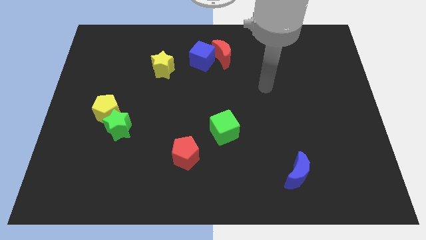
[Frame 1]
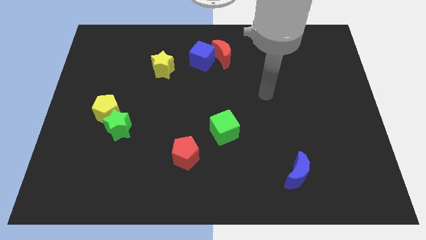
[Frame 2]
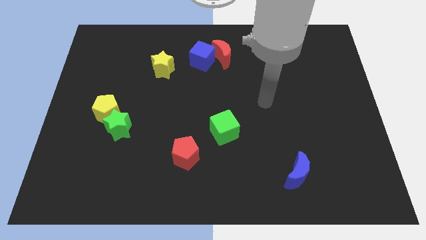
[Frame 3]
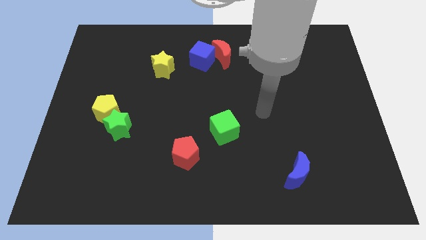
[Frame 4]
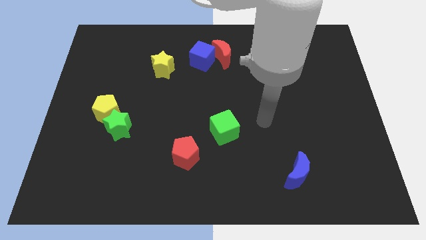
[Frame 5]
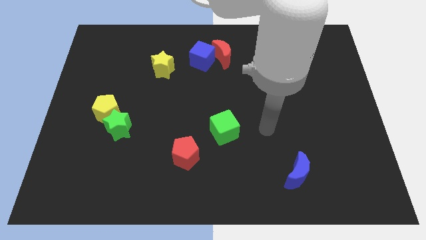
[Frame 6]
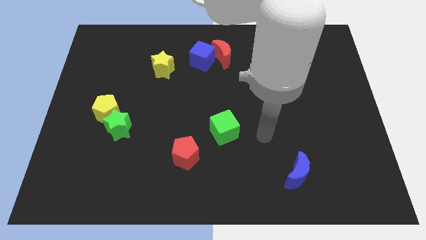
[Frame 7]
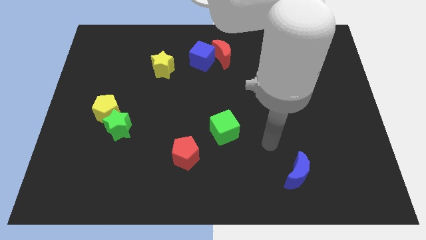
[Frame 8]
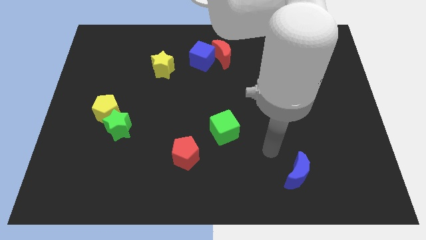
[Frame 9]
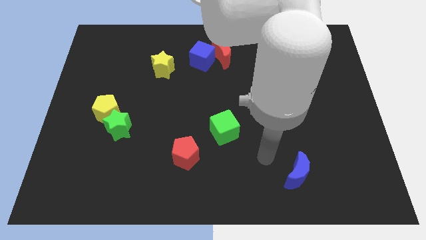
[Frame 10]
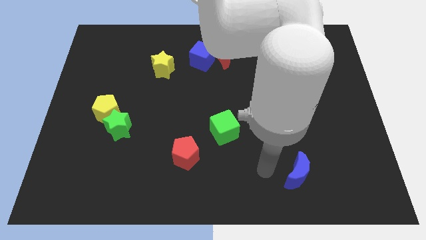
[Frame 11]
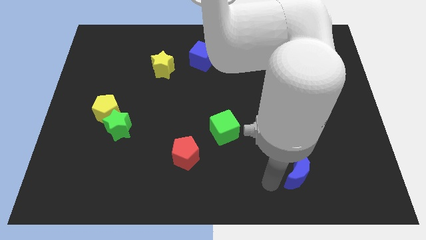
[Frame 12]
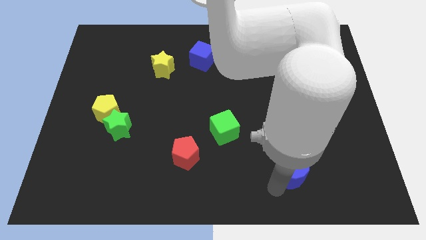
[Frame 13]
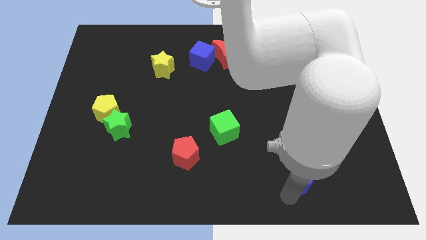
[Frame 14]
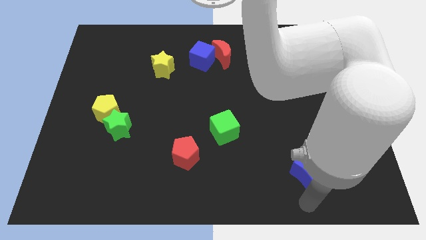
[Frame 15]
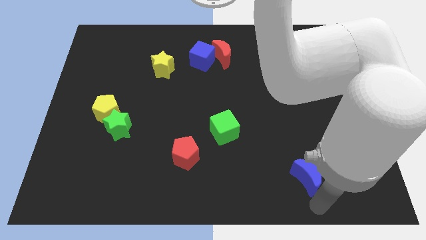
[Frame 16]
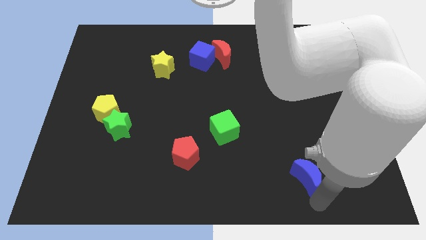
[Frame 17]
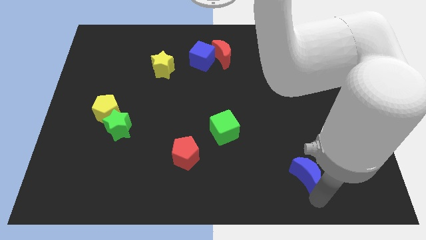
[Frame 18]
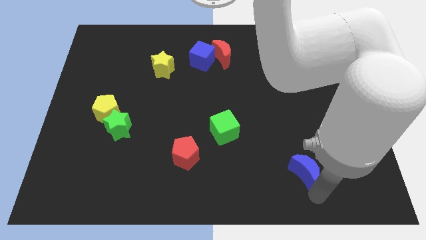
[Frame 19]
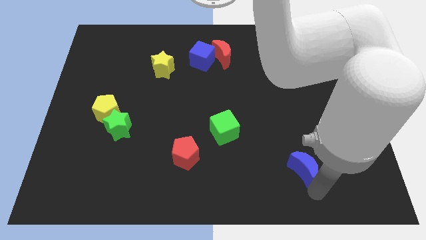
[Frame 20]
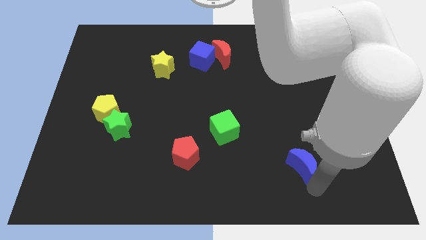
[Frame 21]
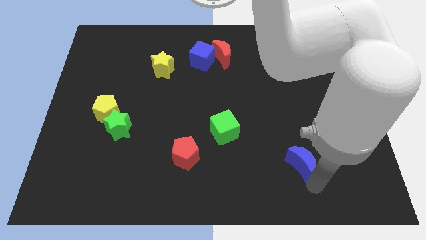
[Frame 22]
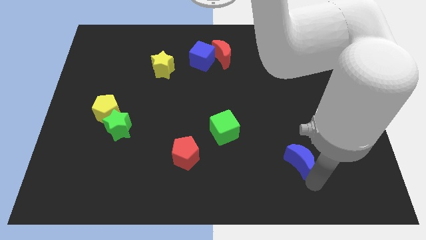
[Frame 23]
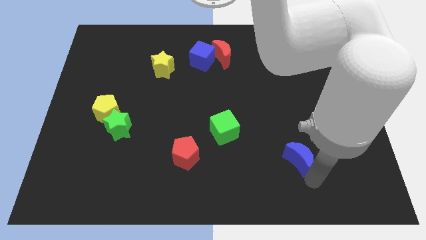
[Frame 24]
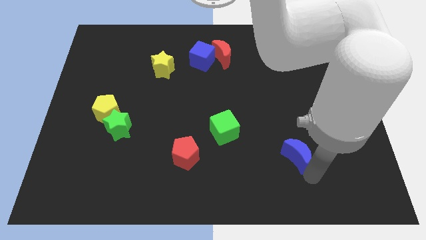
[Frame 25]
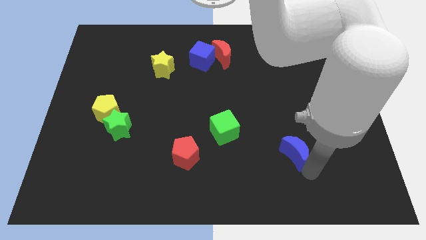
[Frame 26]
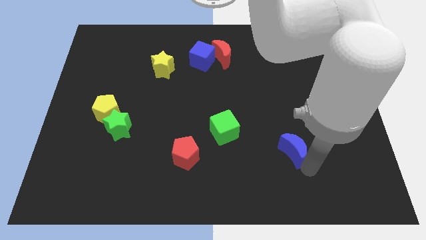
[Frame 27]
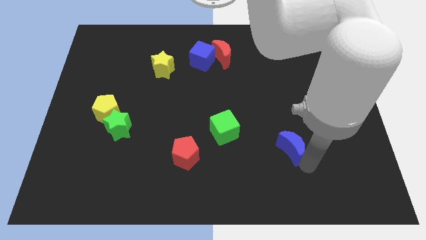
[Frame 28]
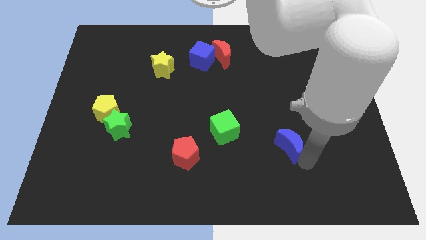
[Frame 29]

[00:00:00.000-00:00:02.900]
slide the blue moon upwards a bit

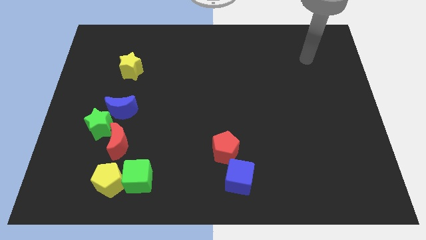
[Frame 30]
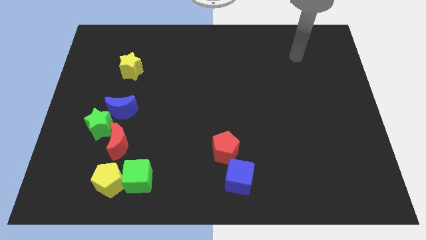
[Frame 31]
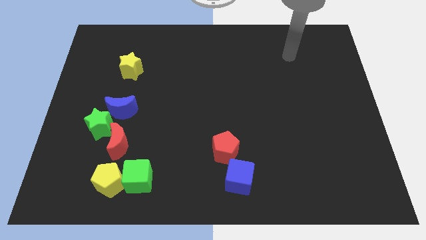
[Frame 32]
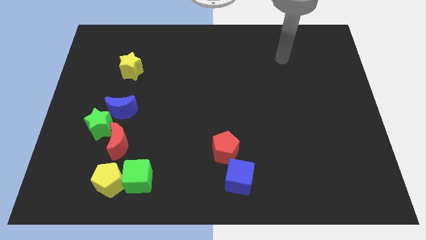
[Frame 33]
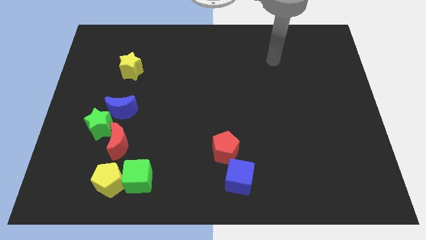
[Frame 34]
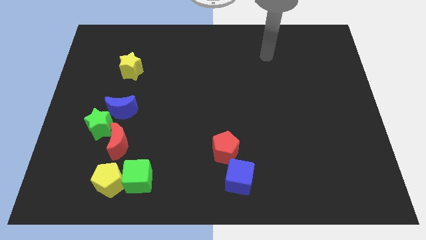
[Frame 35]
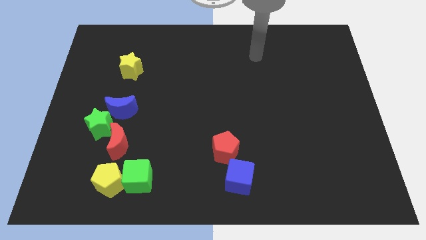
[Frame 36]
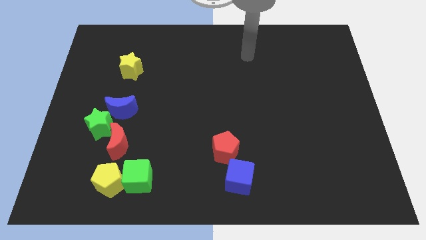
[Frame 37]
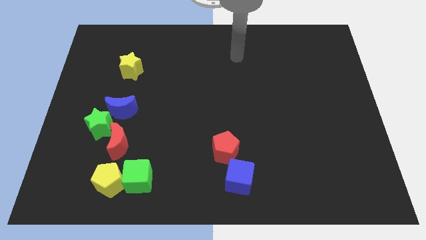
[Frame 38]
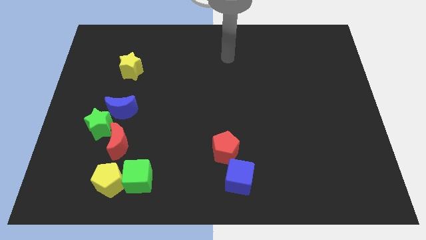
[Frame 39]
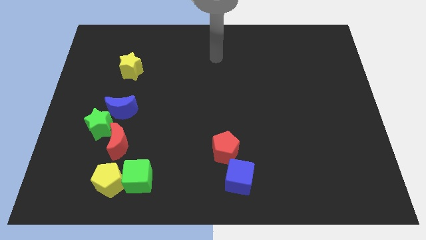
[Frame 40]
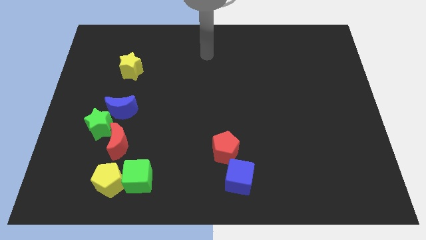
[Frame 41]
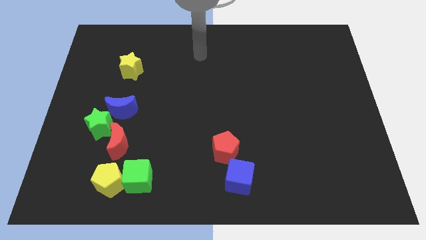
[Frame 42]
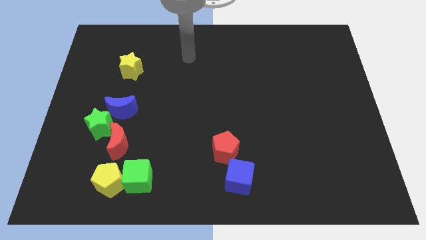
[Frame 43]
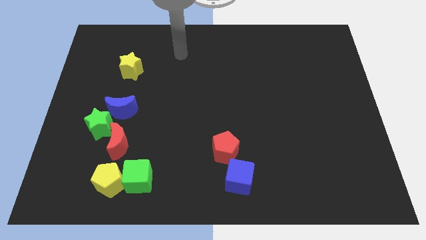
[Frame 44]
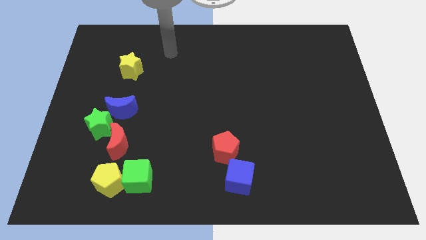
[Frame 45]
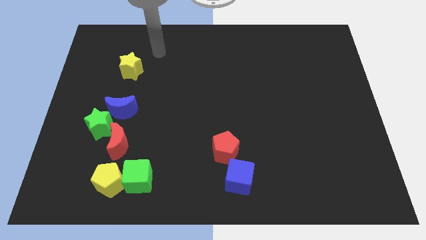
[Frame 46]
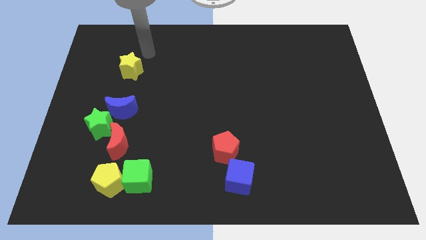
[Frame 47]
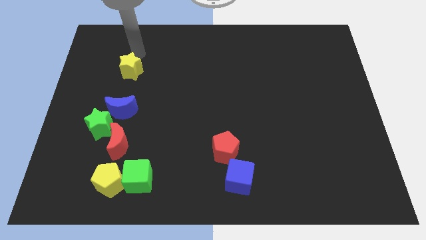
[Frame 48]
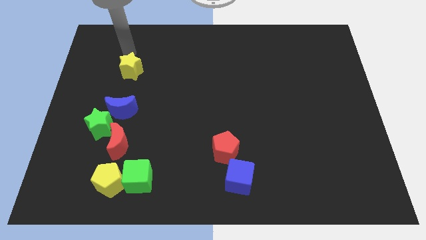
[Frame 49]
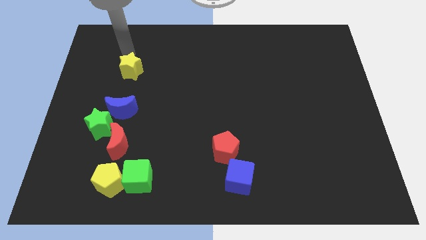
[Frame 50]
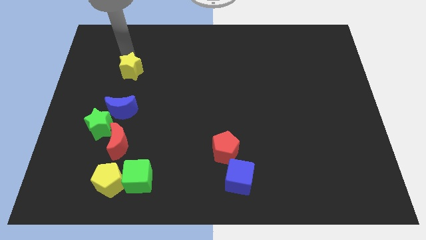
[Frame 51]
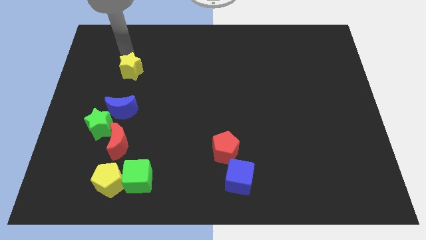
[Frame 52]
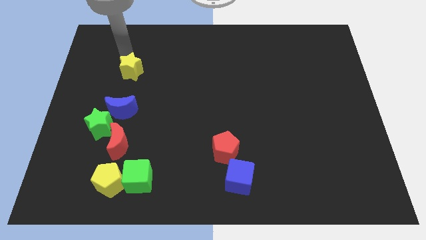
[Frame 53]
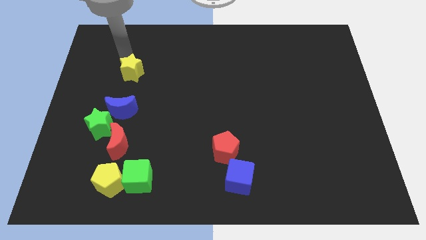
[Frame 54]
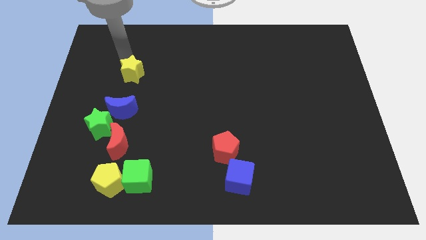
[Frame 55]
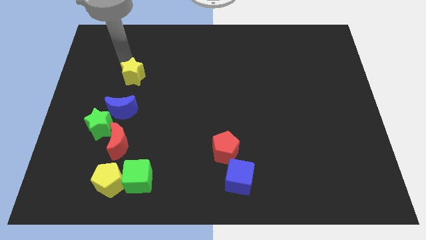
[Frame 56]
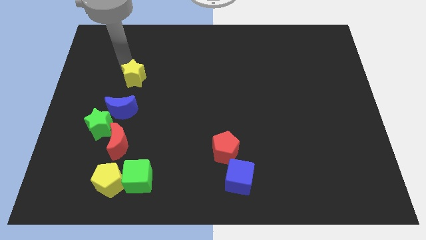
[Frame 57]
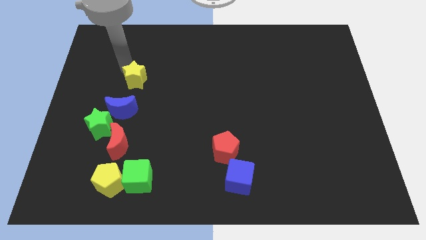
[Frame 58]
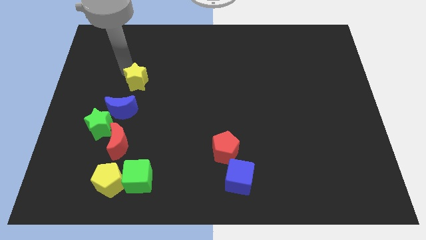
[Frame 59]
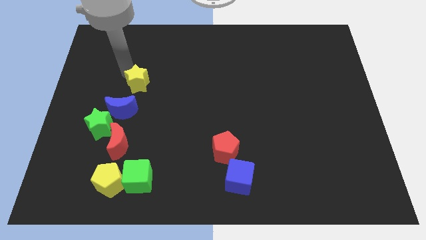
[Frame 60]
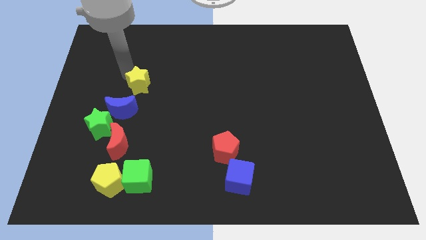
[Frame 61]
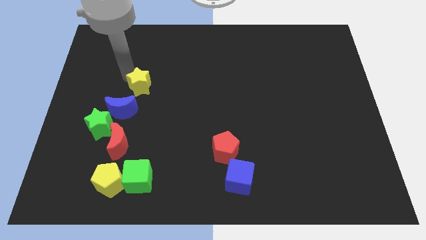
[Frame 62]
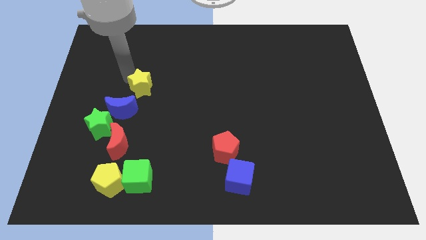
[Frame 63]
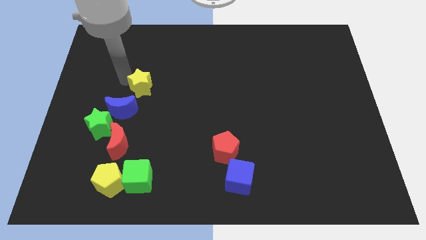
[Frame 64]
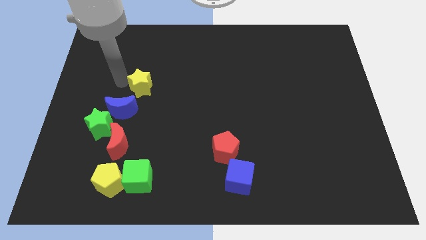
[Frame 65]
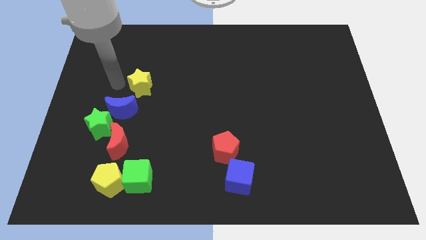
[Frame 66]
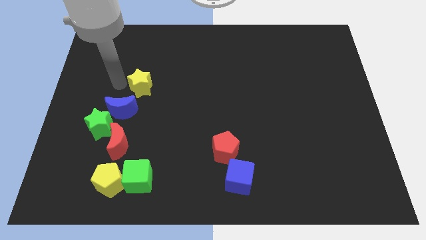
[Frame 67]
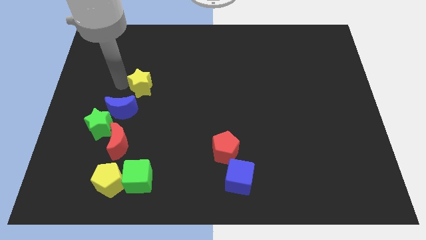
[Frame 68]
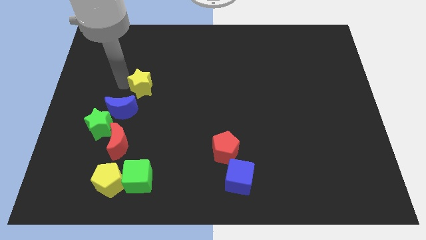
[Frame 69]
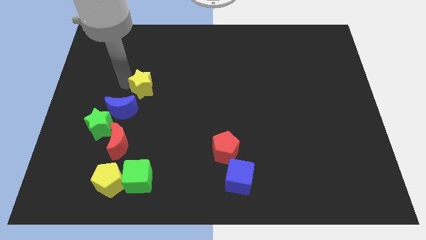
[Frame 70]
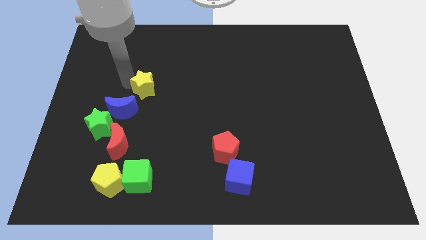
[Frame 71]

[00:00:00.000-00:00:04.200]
move the yellow star down and then to the right a little bit

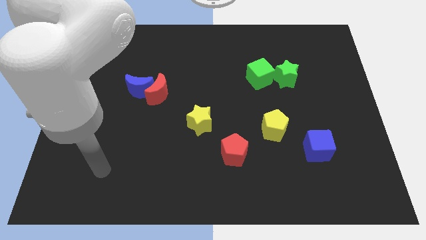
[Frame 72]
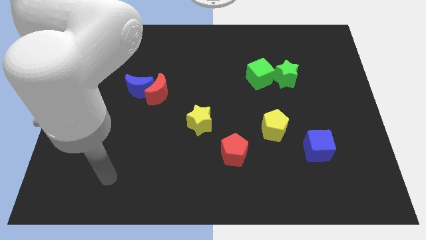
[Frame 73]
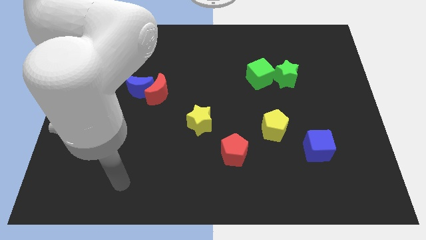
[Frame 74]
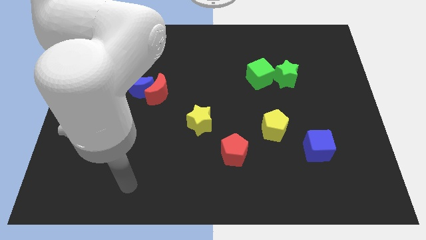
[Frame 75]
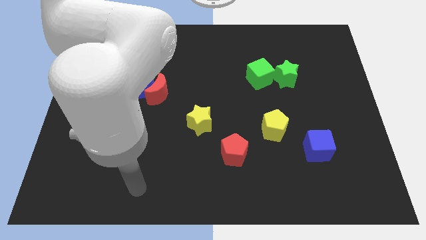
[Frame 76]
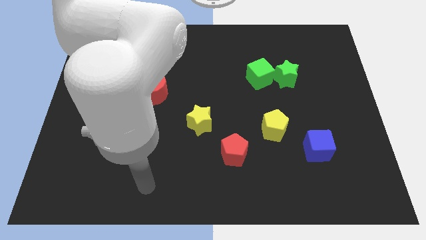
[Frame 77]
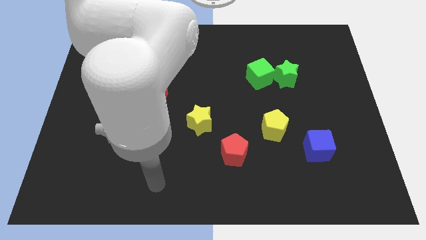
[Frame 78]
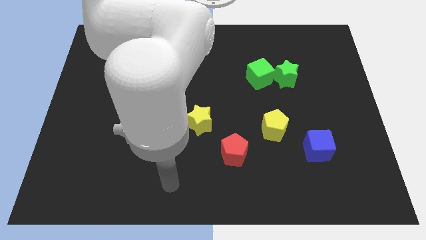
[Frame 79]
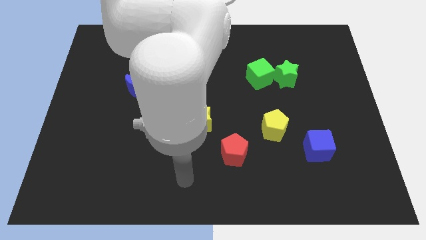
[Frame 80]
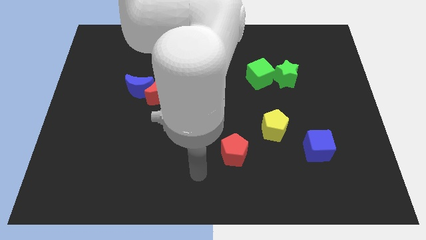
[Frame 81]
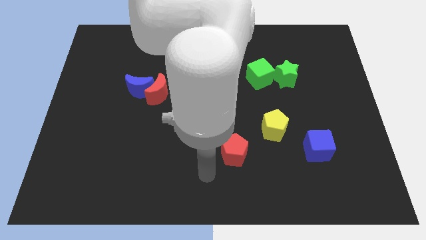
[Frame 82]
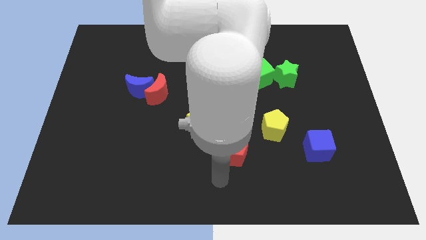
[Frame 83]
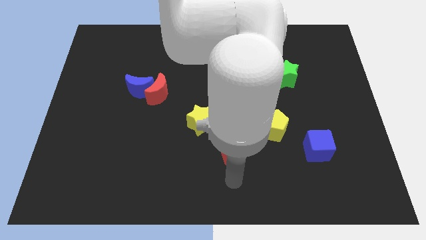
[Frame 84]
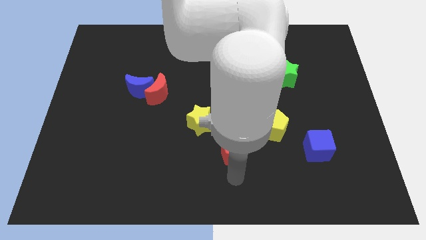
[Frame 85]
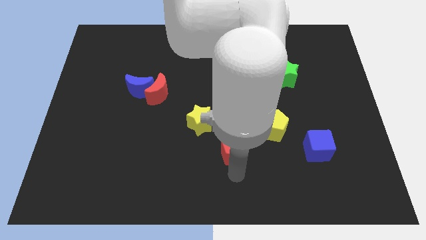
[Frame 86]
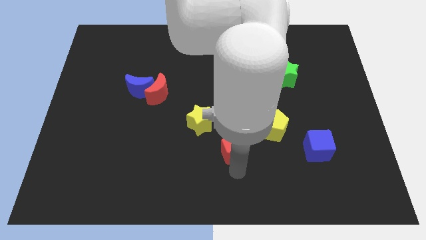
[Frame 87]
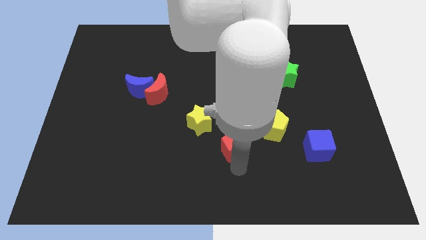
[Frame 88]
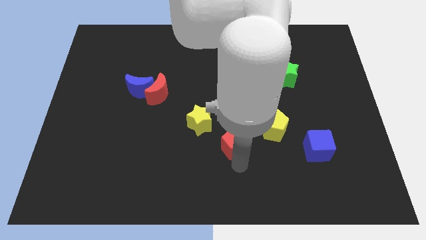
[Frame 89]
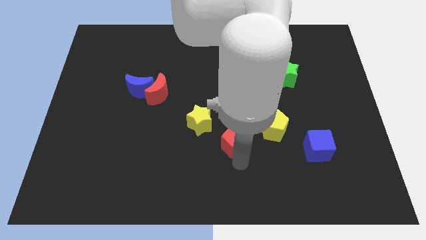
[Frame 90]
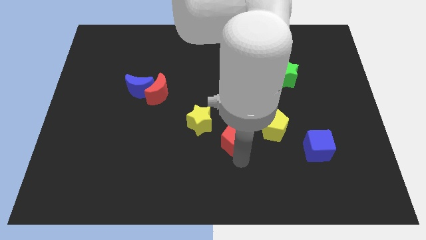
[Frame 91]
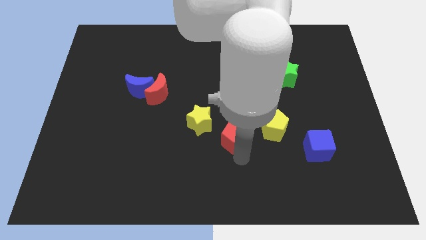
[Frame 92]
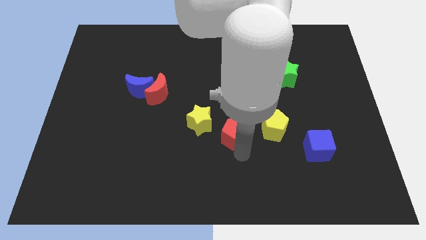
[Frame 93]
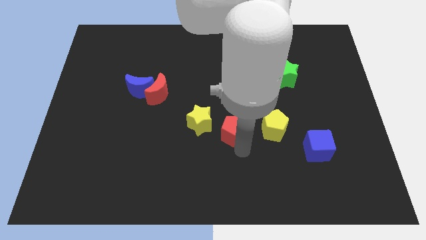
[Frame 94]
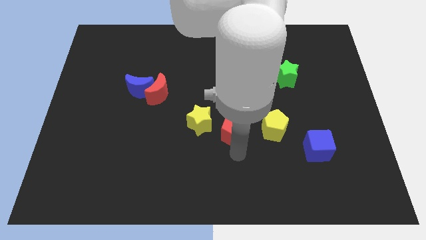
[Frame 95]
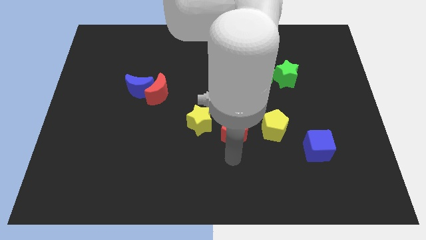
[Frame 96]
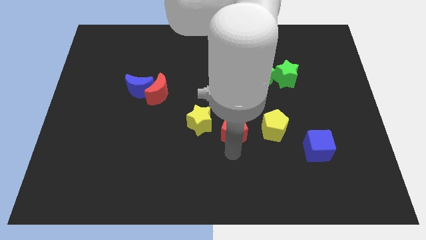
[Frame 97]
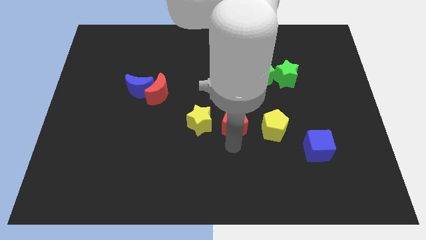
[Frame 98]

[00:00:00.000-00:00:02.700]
push the red pentagon up a little
